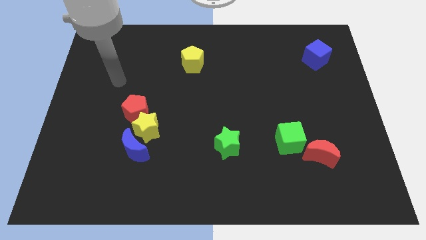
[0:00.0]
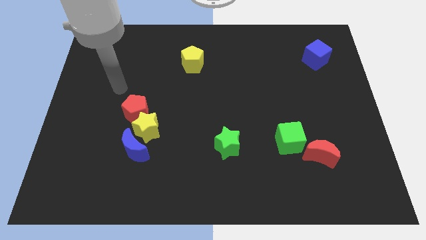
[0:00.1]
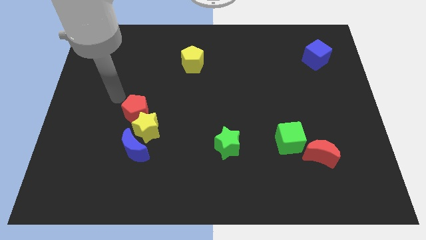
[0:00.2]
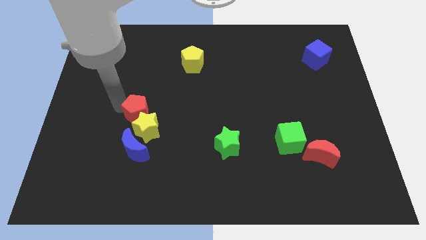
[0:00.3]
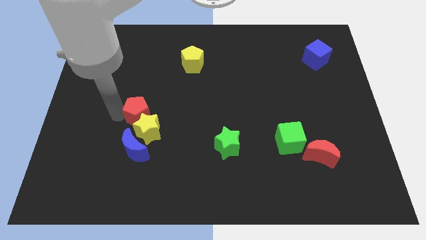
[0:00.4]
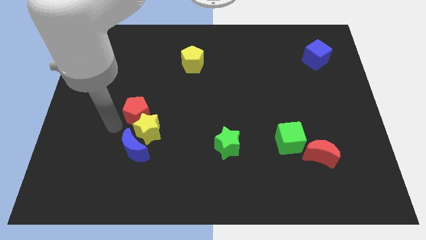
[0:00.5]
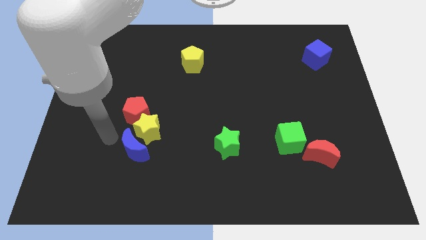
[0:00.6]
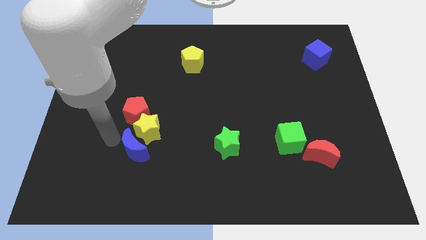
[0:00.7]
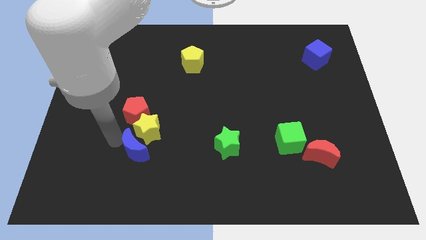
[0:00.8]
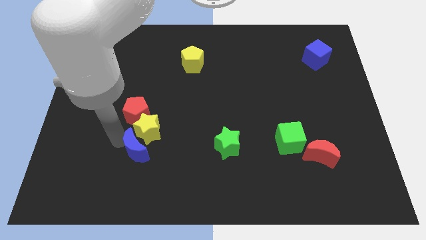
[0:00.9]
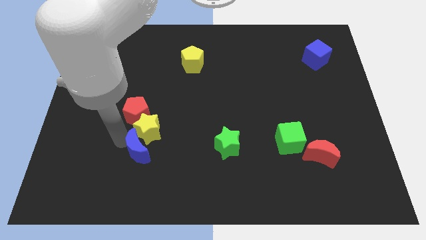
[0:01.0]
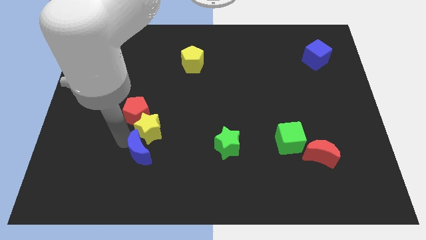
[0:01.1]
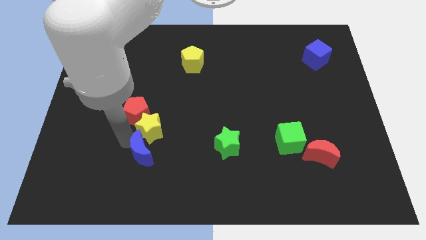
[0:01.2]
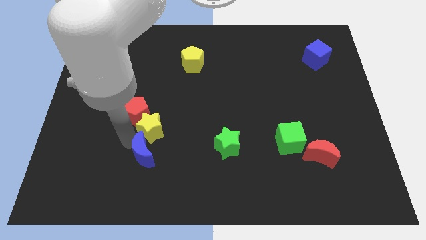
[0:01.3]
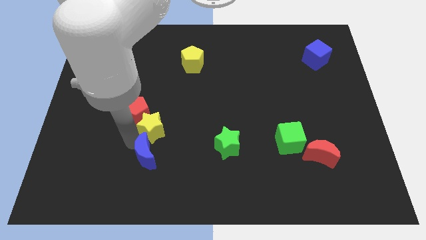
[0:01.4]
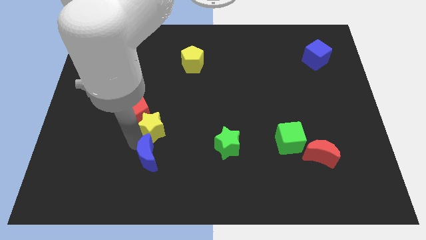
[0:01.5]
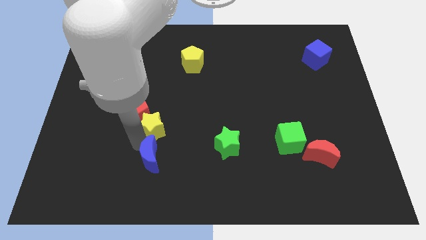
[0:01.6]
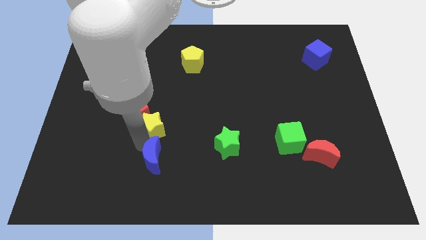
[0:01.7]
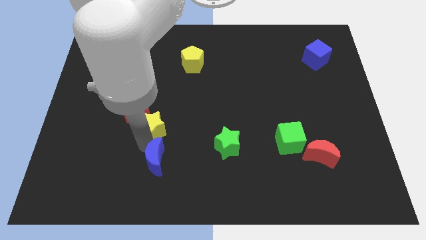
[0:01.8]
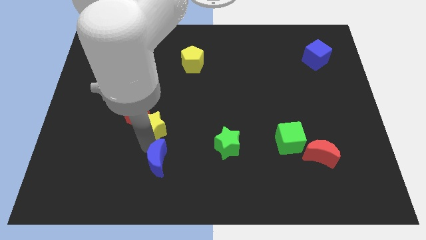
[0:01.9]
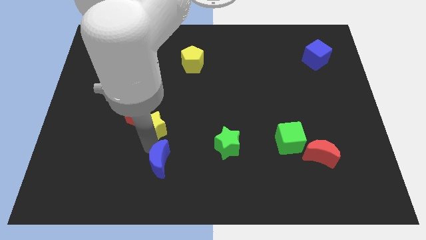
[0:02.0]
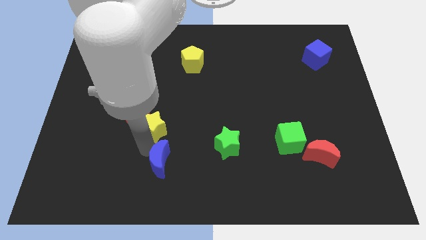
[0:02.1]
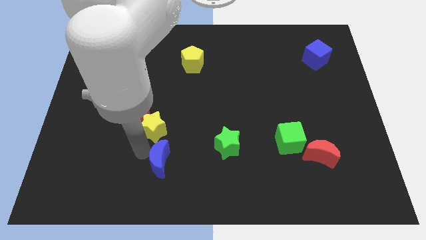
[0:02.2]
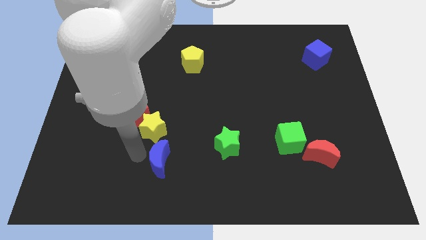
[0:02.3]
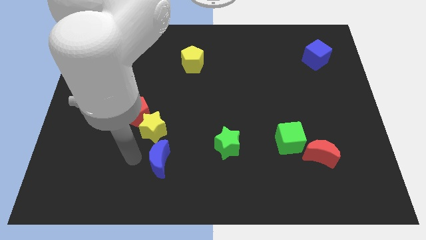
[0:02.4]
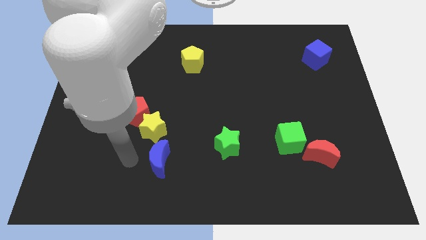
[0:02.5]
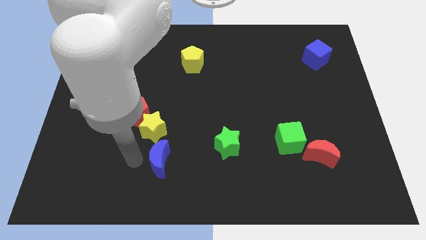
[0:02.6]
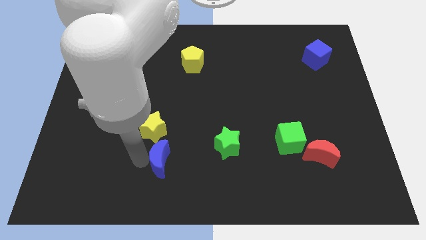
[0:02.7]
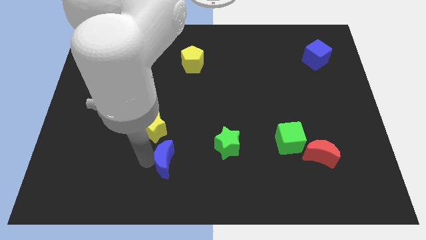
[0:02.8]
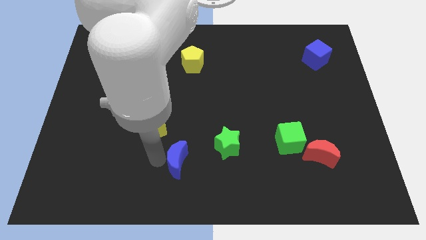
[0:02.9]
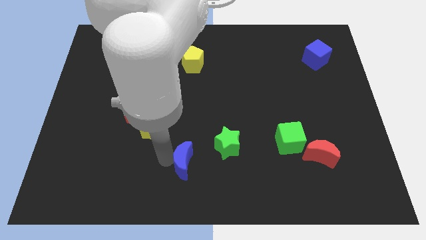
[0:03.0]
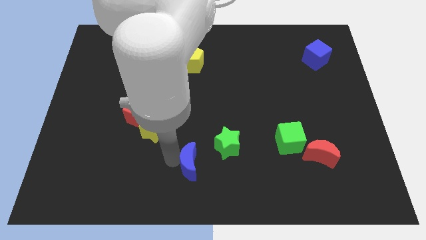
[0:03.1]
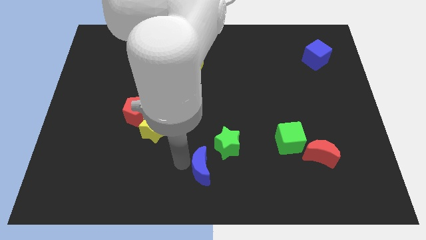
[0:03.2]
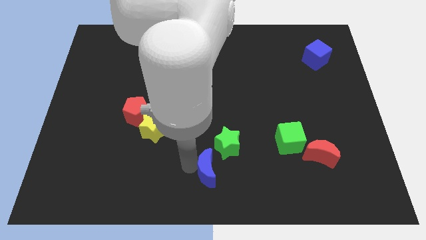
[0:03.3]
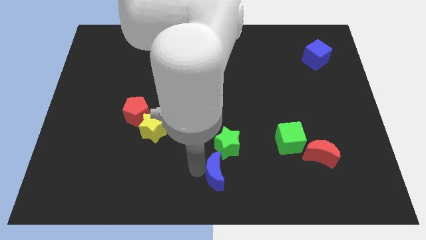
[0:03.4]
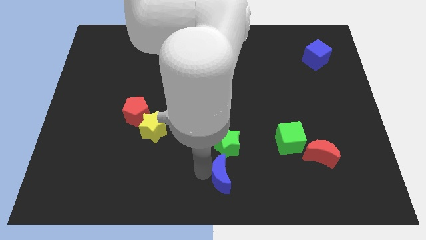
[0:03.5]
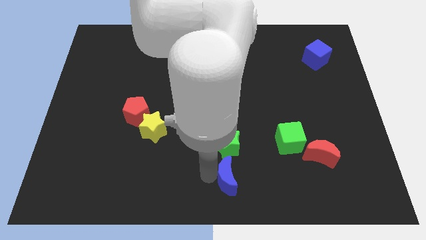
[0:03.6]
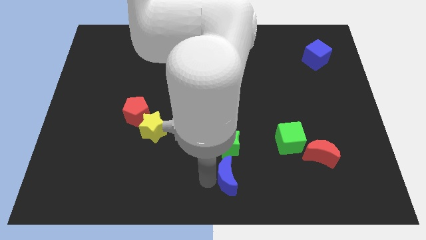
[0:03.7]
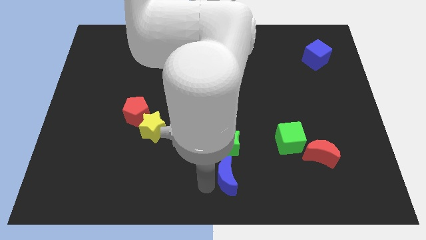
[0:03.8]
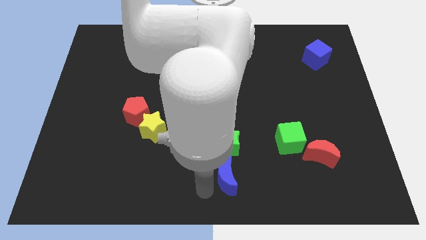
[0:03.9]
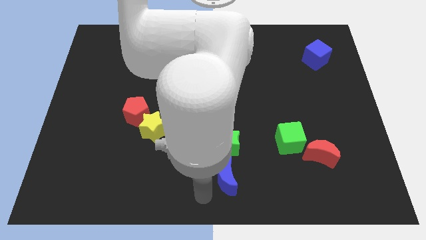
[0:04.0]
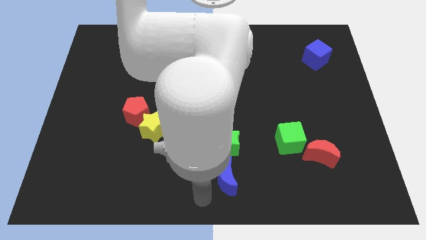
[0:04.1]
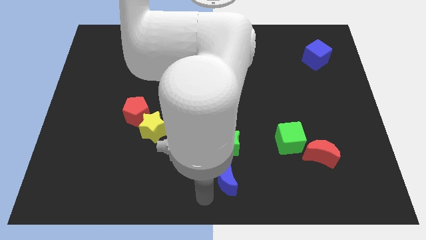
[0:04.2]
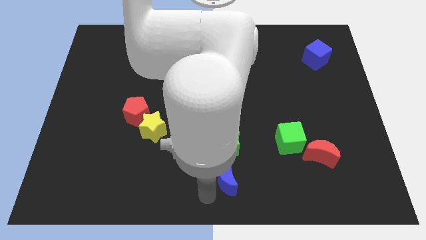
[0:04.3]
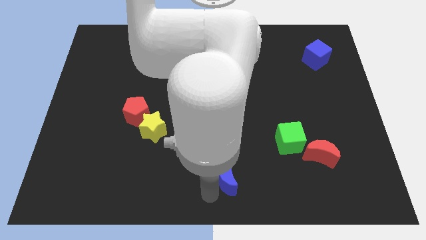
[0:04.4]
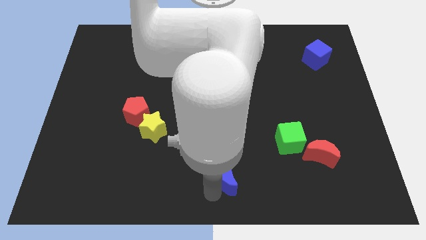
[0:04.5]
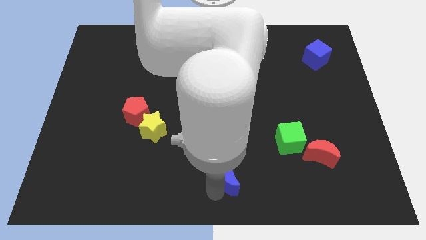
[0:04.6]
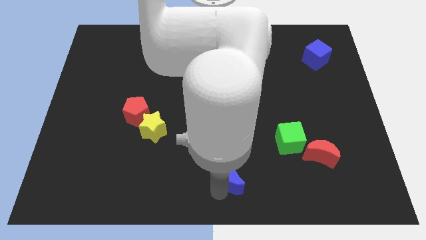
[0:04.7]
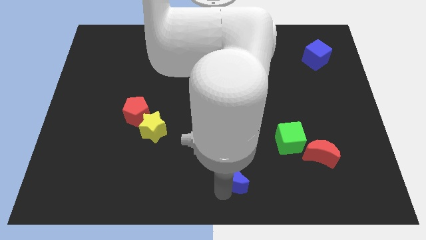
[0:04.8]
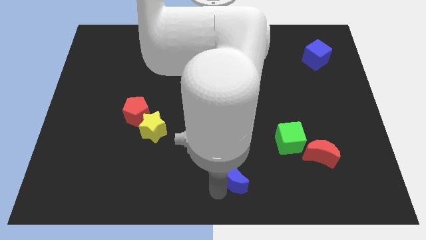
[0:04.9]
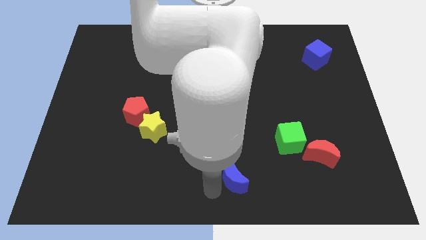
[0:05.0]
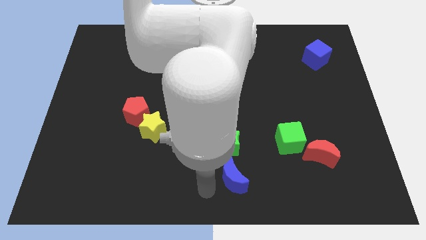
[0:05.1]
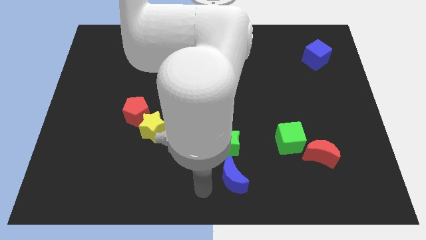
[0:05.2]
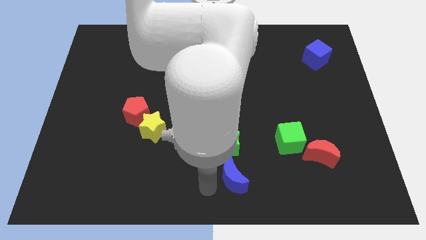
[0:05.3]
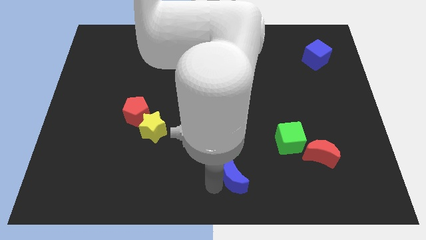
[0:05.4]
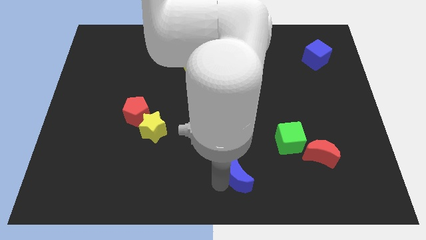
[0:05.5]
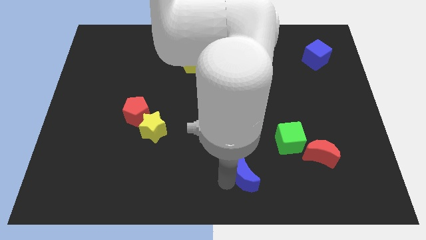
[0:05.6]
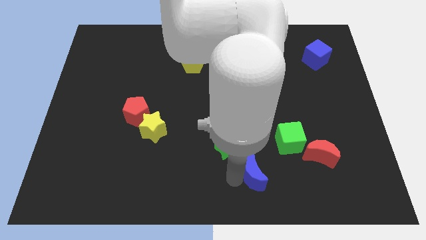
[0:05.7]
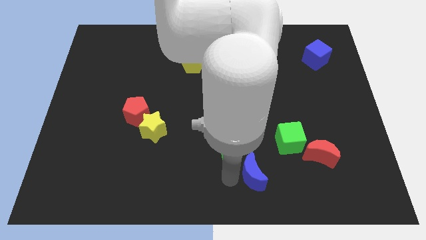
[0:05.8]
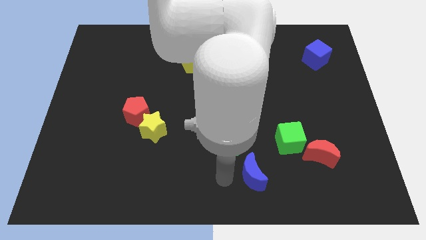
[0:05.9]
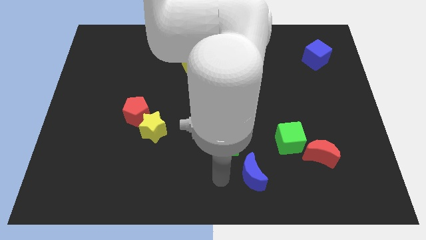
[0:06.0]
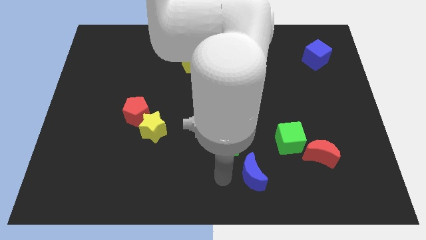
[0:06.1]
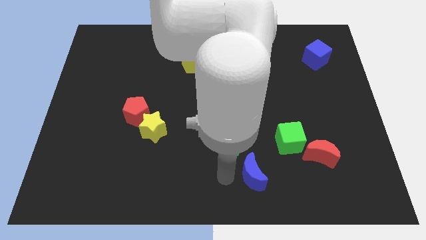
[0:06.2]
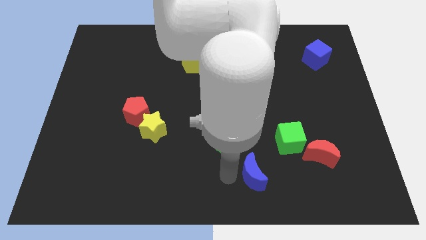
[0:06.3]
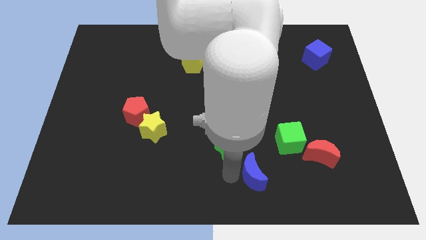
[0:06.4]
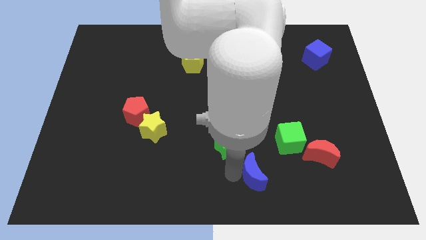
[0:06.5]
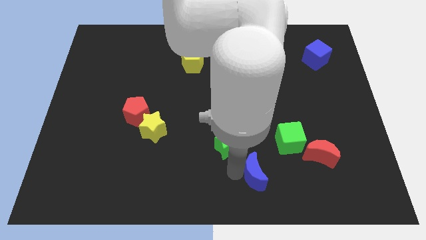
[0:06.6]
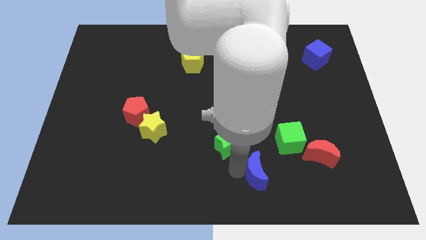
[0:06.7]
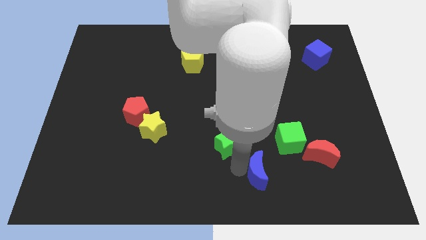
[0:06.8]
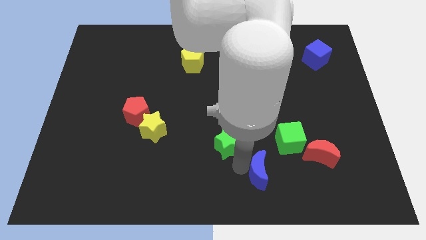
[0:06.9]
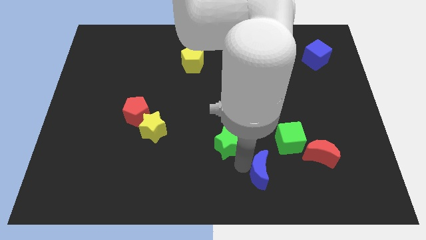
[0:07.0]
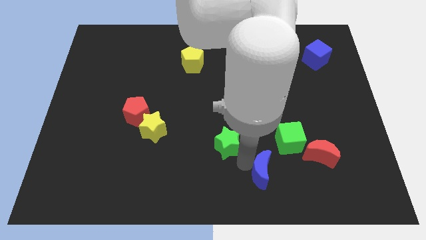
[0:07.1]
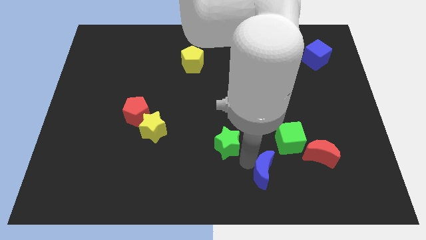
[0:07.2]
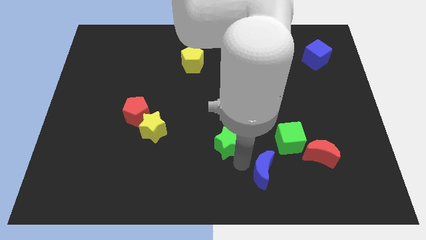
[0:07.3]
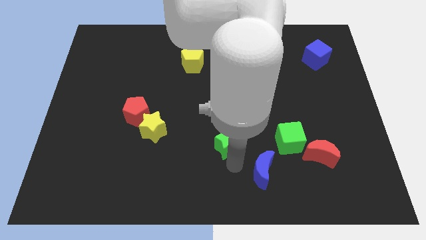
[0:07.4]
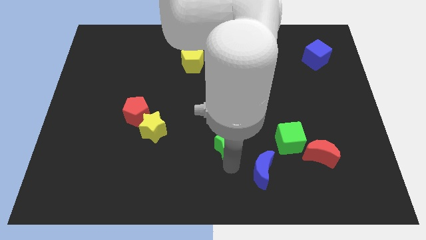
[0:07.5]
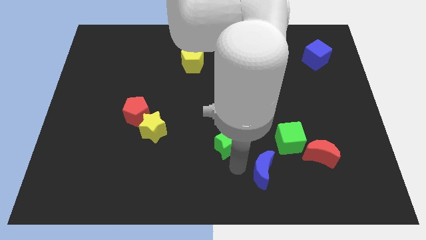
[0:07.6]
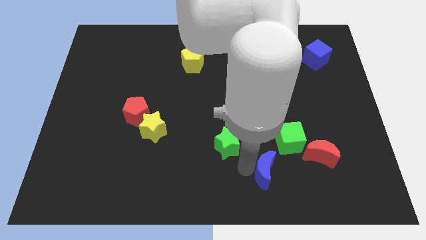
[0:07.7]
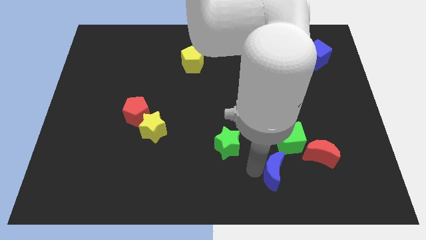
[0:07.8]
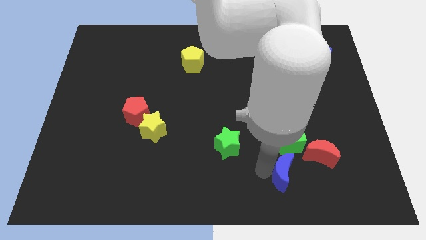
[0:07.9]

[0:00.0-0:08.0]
push the blue moon to the bottom left side of the red moon
